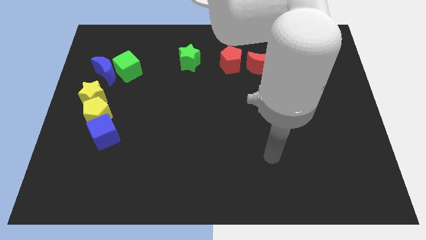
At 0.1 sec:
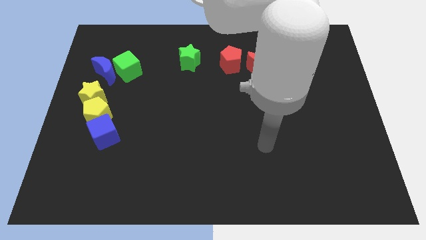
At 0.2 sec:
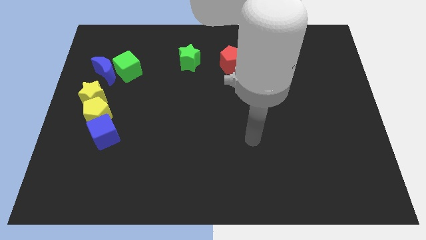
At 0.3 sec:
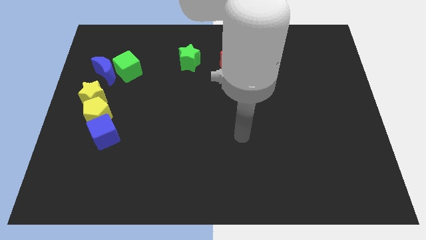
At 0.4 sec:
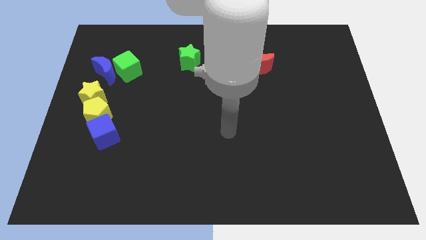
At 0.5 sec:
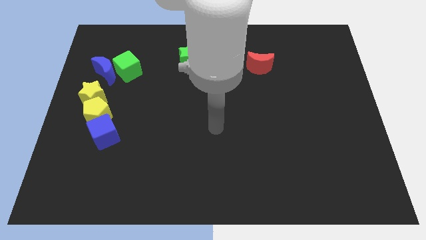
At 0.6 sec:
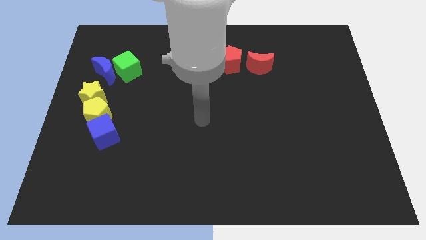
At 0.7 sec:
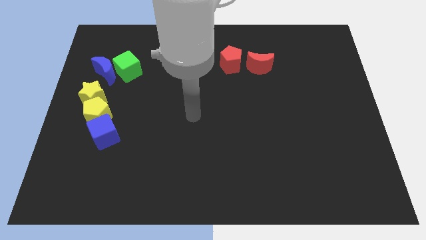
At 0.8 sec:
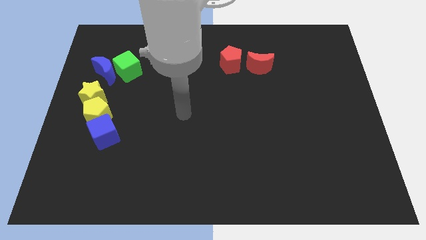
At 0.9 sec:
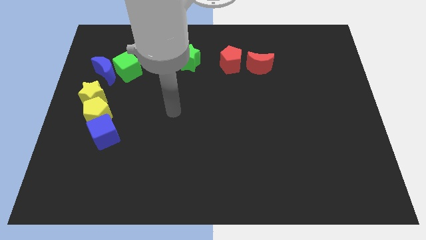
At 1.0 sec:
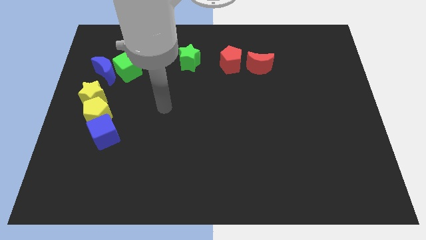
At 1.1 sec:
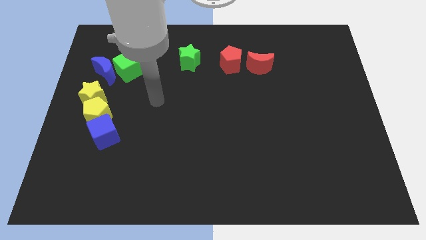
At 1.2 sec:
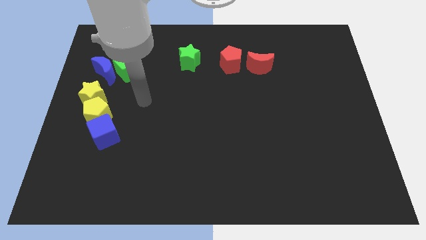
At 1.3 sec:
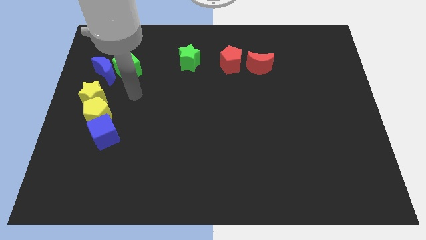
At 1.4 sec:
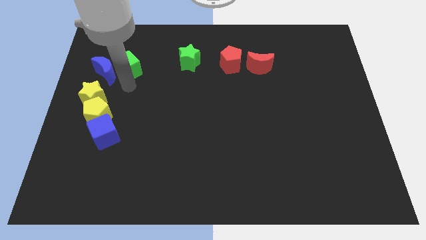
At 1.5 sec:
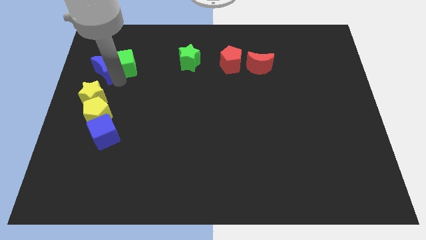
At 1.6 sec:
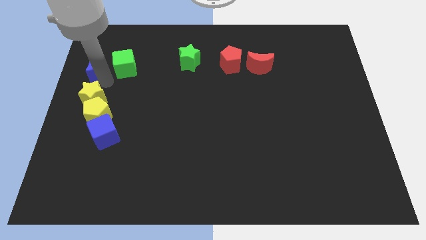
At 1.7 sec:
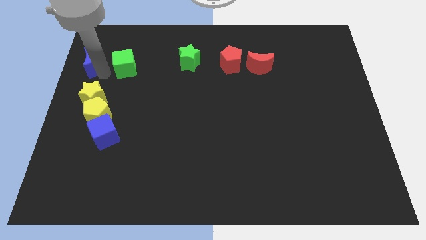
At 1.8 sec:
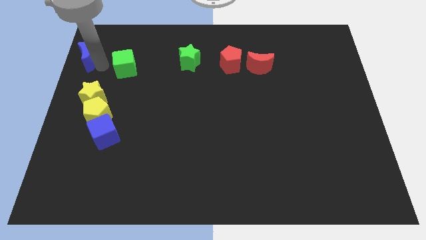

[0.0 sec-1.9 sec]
separate the green cube from the blue moon

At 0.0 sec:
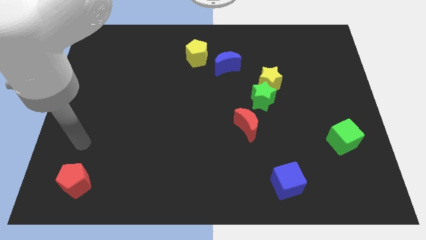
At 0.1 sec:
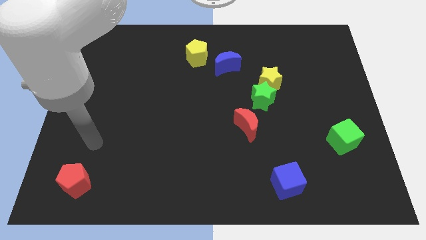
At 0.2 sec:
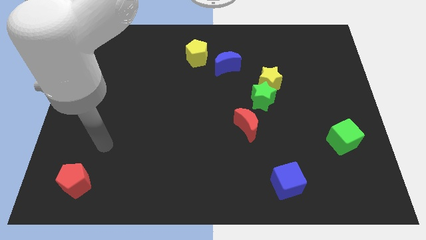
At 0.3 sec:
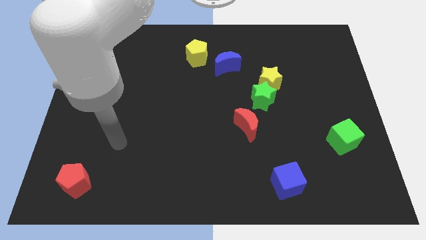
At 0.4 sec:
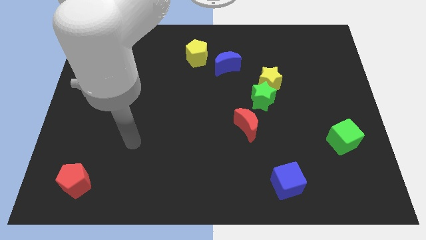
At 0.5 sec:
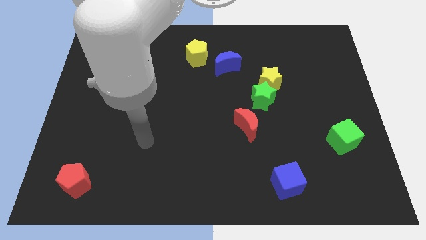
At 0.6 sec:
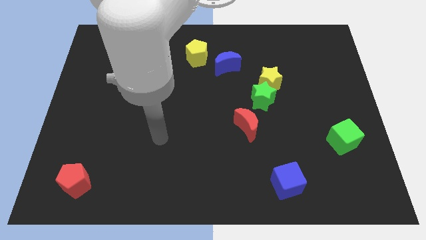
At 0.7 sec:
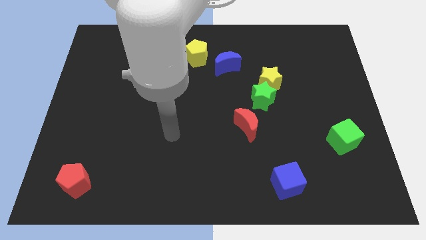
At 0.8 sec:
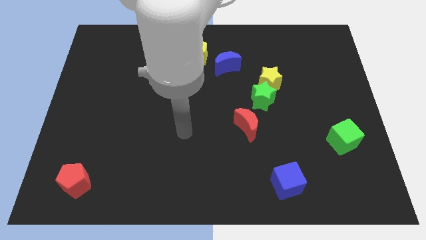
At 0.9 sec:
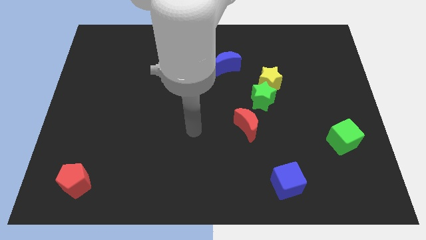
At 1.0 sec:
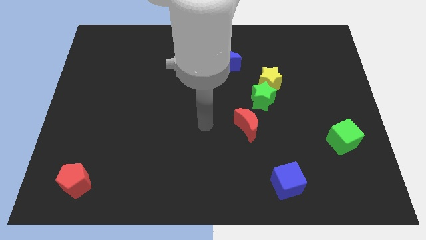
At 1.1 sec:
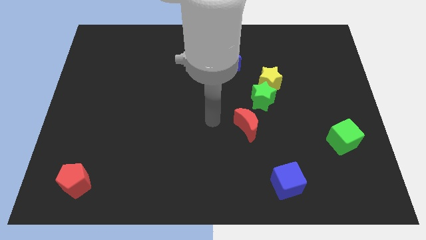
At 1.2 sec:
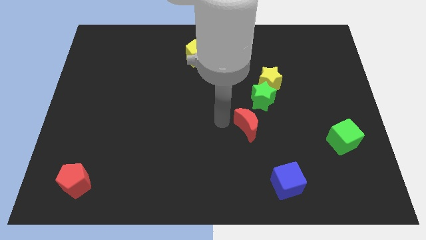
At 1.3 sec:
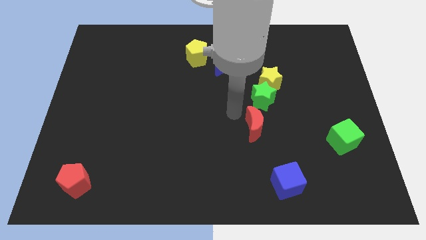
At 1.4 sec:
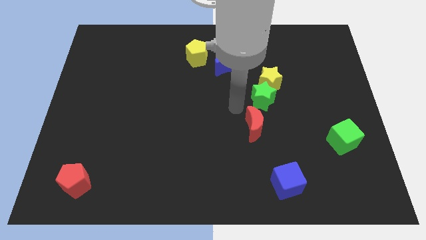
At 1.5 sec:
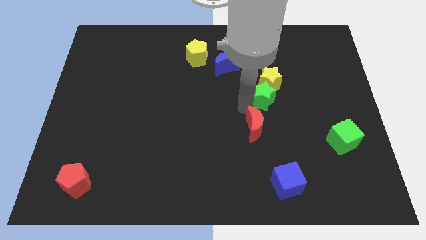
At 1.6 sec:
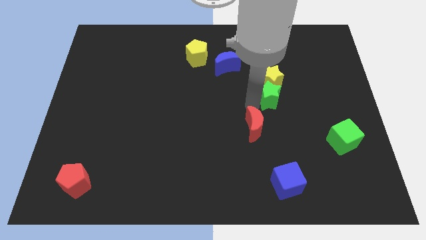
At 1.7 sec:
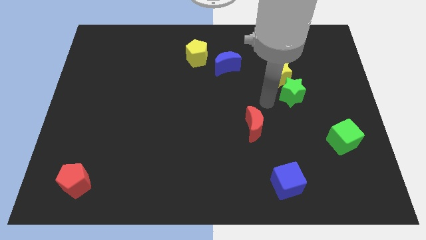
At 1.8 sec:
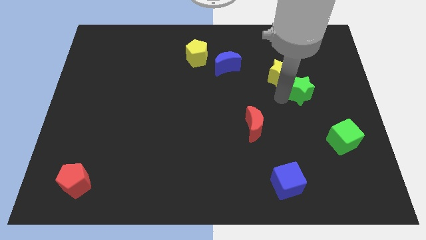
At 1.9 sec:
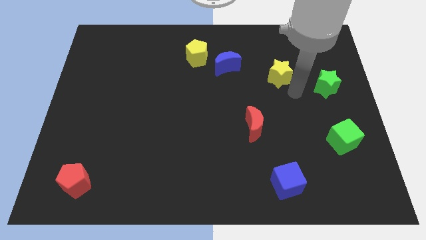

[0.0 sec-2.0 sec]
separate the yellow star from the green star

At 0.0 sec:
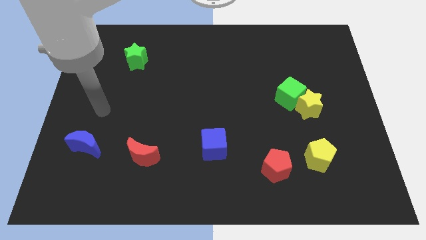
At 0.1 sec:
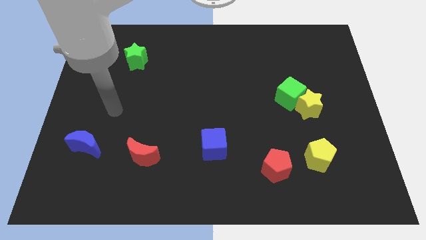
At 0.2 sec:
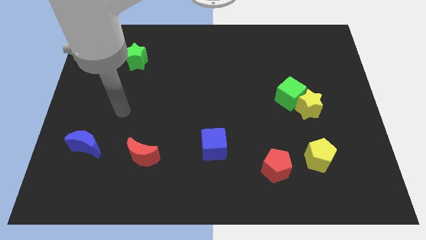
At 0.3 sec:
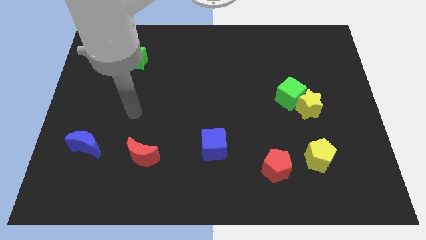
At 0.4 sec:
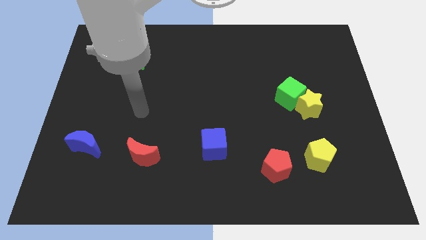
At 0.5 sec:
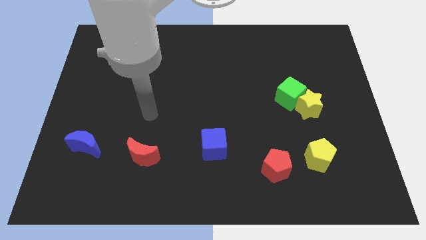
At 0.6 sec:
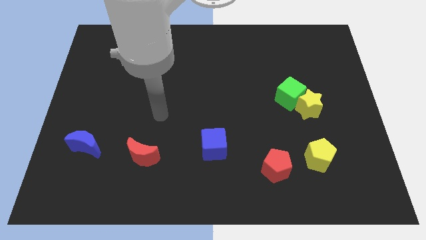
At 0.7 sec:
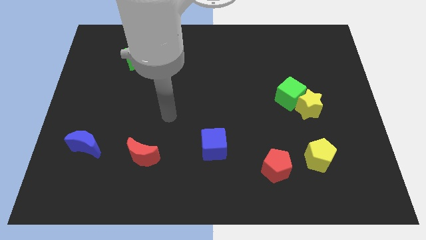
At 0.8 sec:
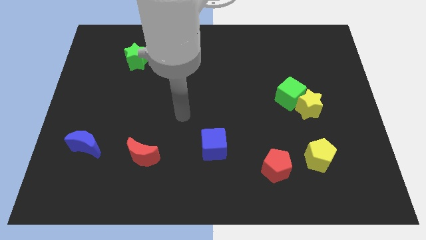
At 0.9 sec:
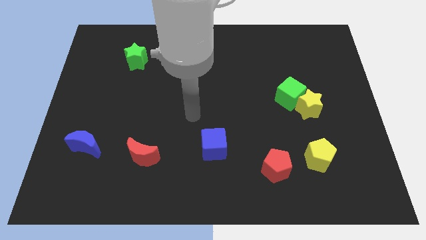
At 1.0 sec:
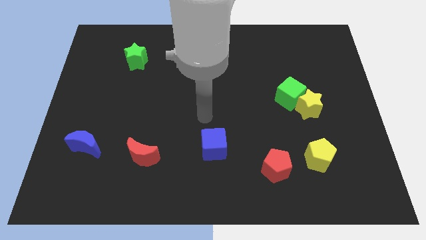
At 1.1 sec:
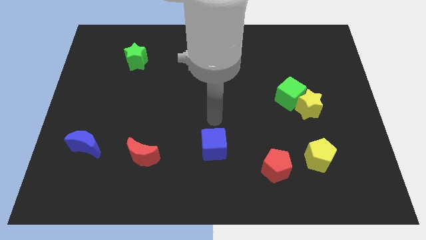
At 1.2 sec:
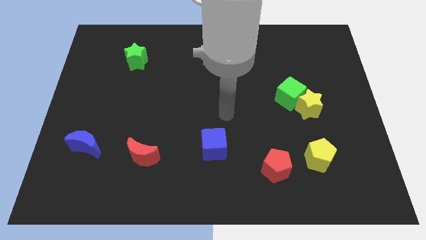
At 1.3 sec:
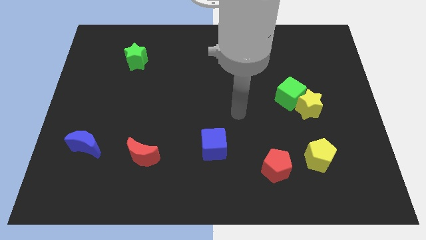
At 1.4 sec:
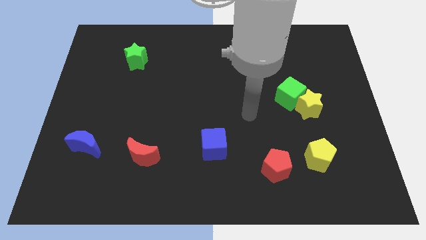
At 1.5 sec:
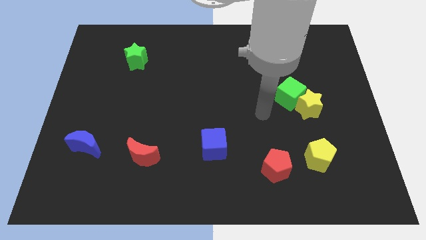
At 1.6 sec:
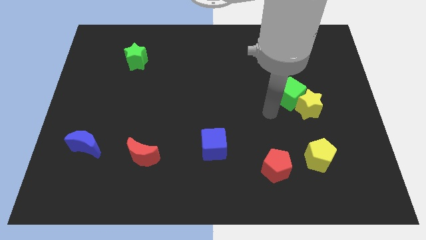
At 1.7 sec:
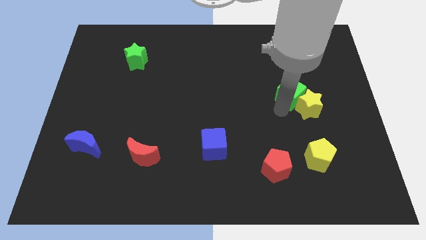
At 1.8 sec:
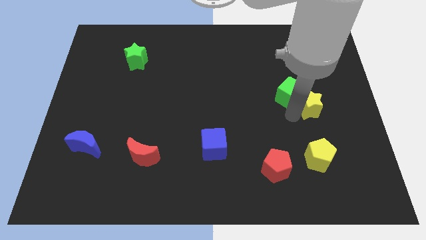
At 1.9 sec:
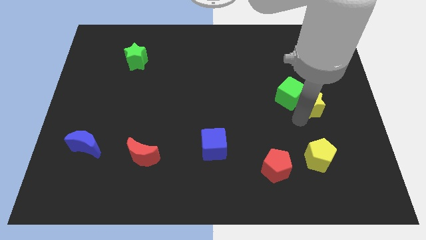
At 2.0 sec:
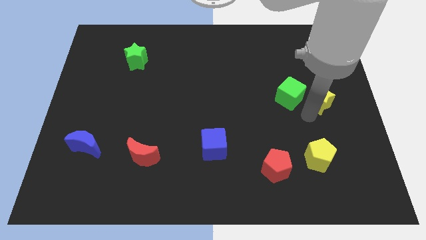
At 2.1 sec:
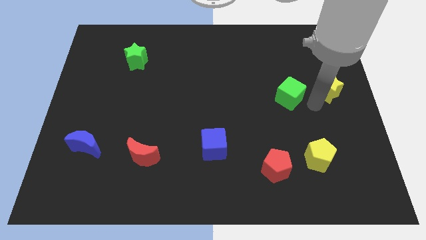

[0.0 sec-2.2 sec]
move the green cube away from the yellow star

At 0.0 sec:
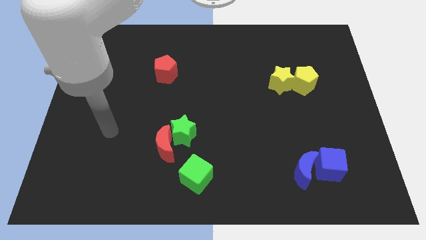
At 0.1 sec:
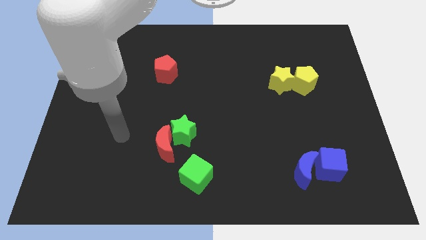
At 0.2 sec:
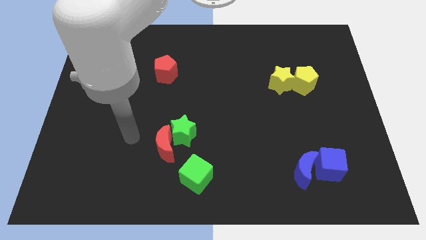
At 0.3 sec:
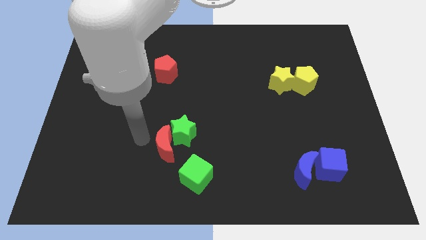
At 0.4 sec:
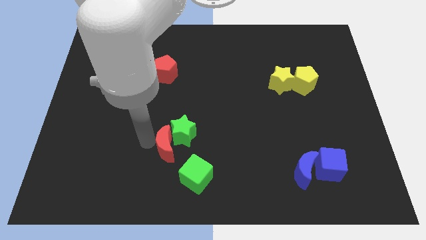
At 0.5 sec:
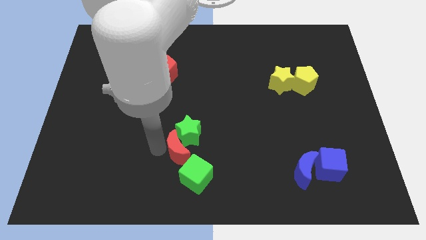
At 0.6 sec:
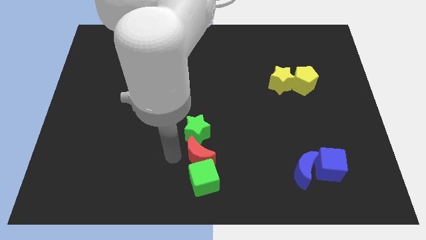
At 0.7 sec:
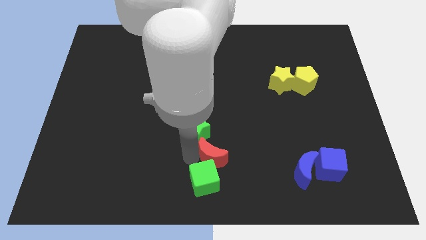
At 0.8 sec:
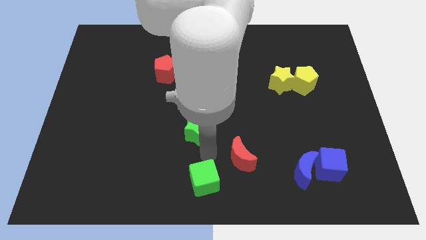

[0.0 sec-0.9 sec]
separate the green star from the red moon

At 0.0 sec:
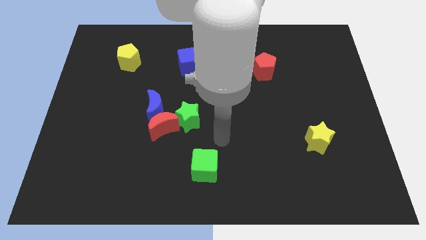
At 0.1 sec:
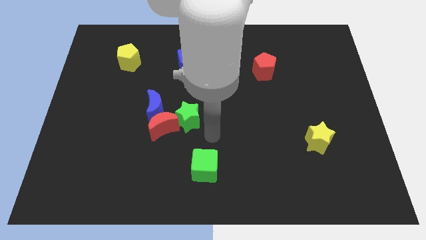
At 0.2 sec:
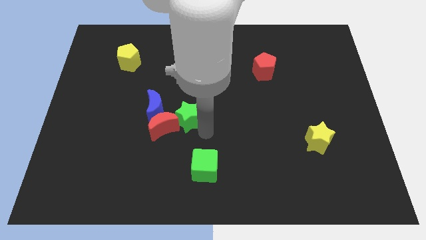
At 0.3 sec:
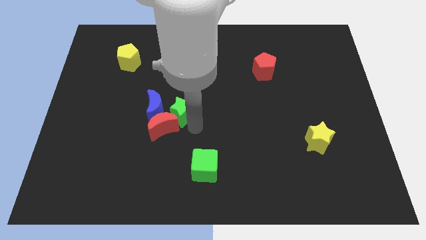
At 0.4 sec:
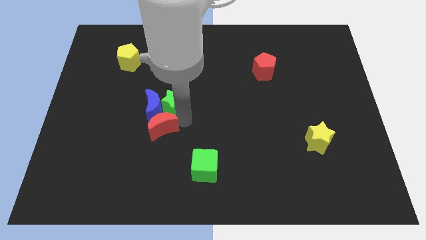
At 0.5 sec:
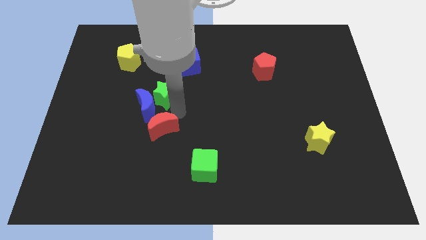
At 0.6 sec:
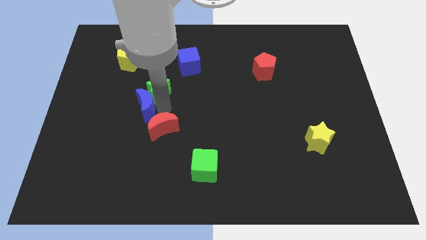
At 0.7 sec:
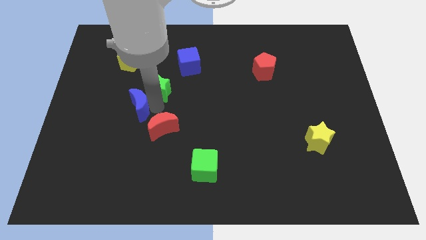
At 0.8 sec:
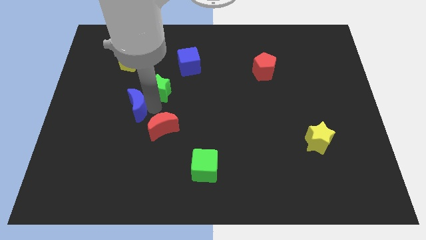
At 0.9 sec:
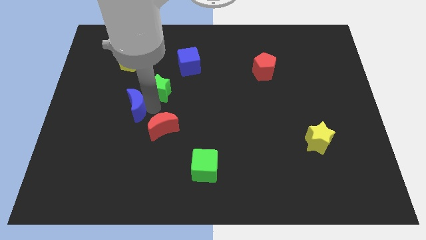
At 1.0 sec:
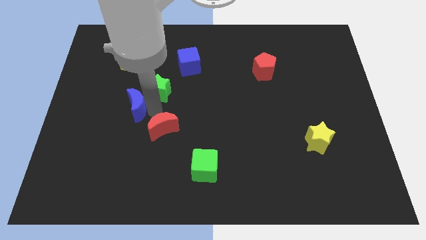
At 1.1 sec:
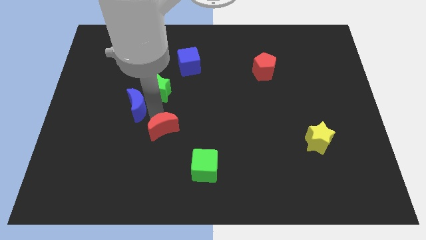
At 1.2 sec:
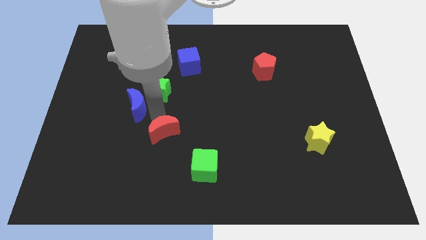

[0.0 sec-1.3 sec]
pull the red moon apart from the blue moon and green star

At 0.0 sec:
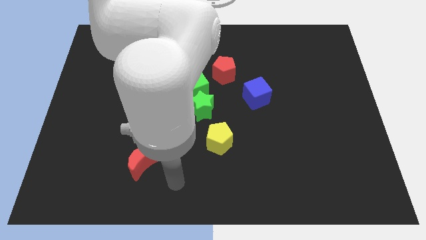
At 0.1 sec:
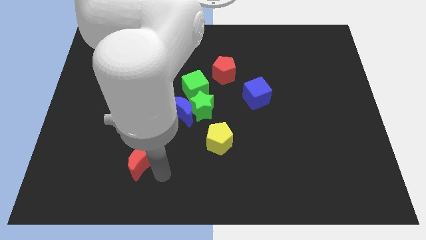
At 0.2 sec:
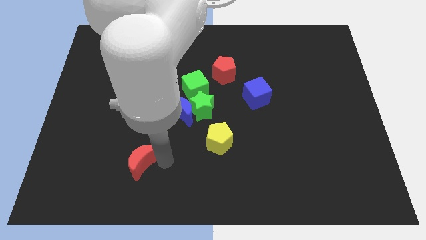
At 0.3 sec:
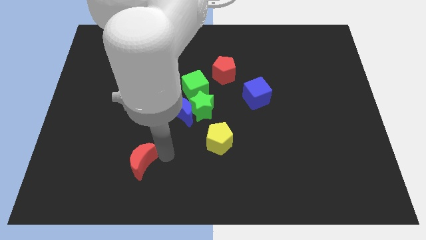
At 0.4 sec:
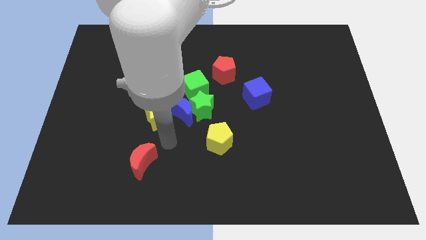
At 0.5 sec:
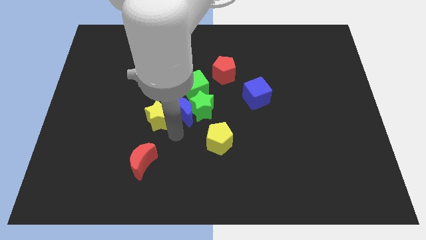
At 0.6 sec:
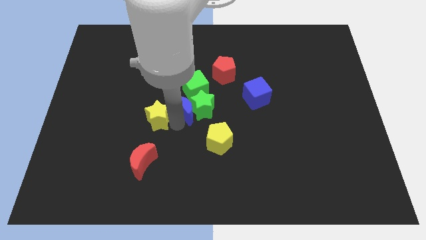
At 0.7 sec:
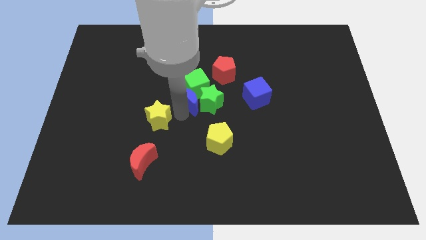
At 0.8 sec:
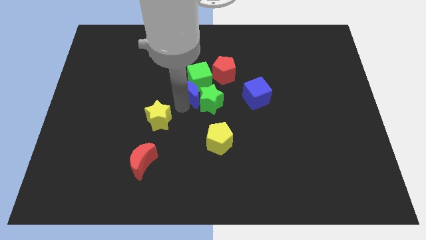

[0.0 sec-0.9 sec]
separate the yellow star from the blue moon
